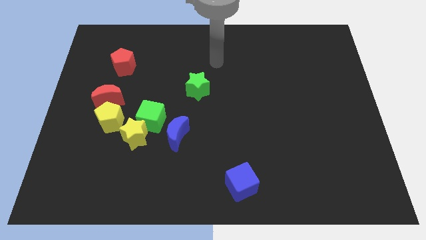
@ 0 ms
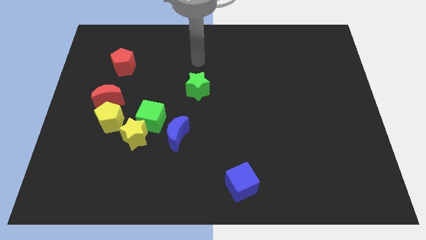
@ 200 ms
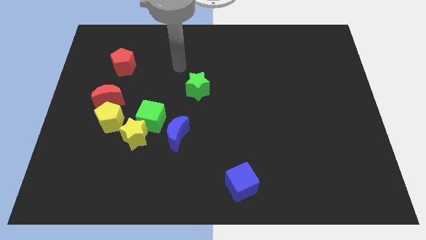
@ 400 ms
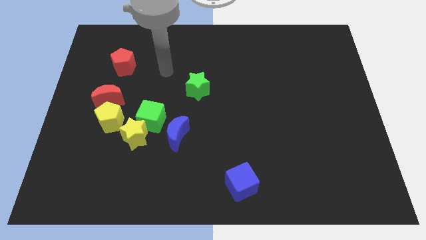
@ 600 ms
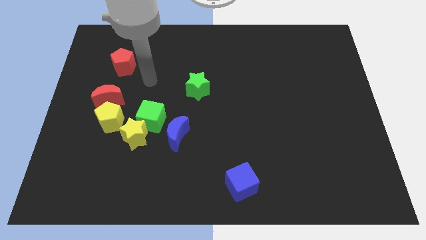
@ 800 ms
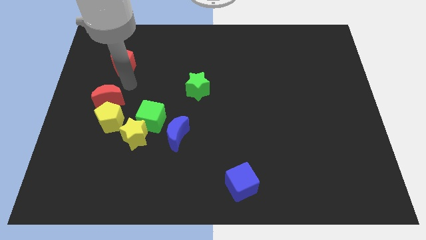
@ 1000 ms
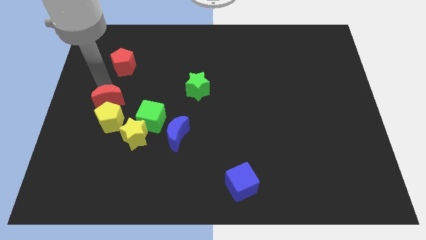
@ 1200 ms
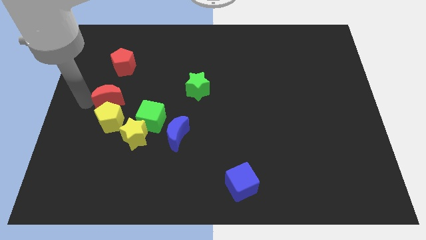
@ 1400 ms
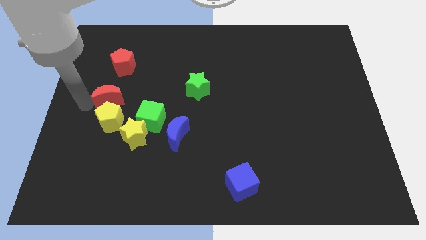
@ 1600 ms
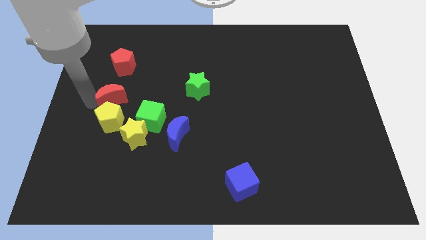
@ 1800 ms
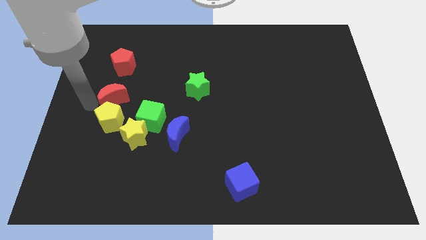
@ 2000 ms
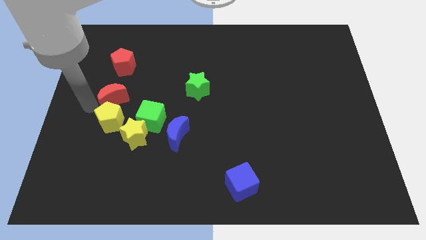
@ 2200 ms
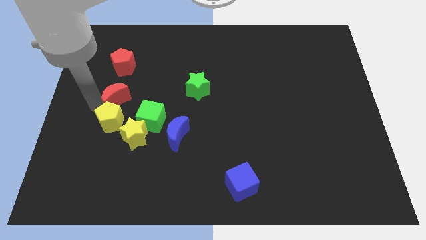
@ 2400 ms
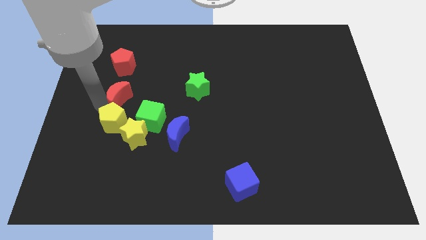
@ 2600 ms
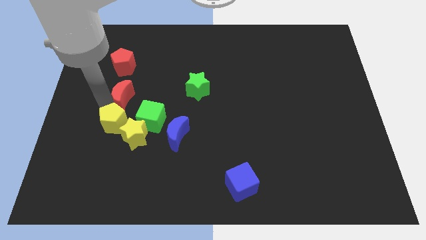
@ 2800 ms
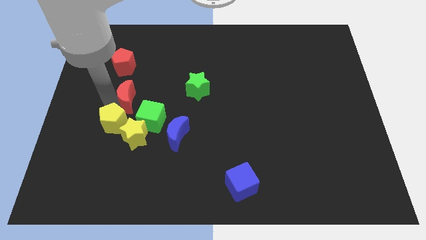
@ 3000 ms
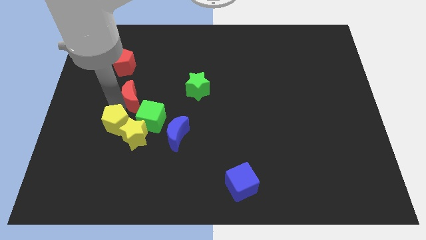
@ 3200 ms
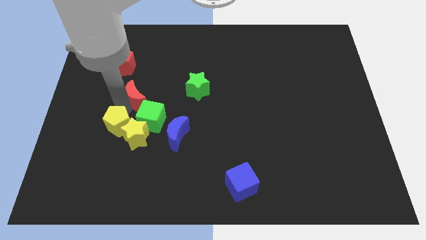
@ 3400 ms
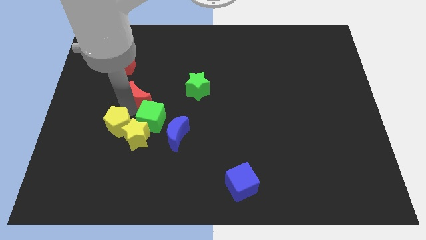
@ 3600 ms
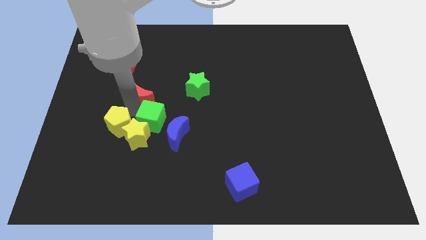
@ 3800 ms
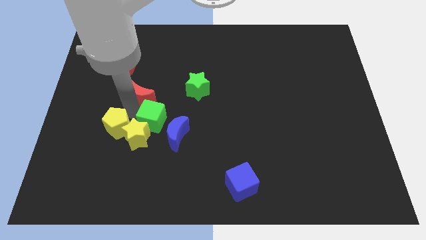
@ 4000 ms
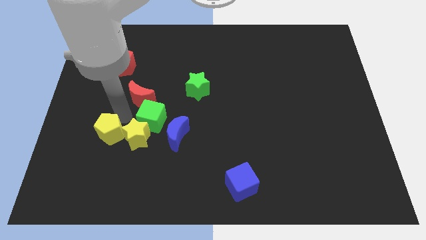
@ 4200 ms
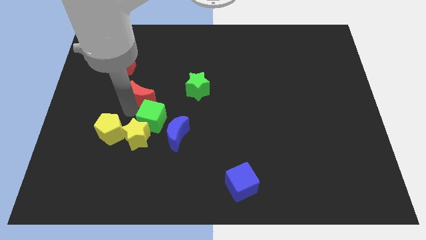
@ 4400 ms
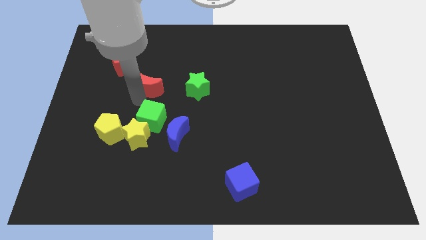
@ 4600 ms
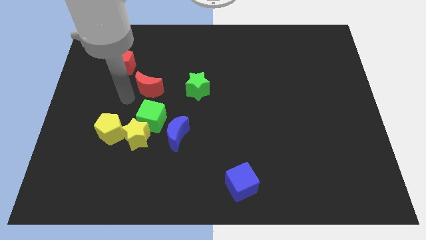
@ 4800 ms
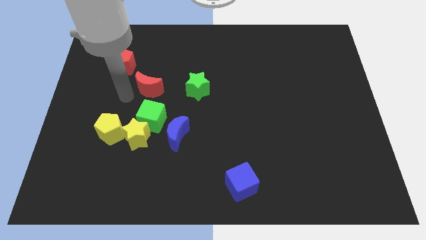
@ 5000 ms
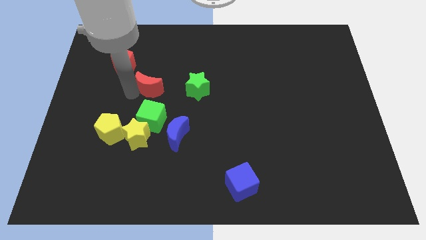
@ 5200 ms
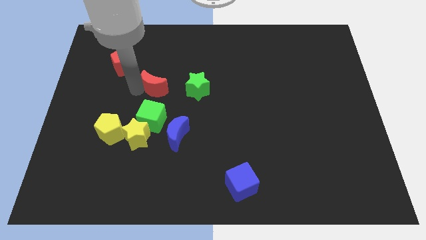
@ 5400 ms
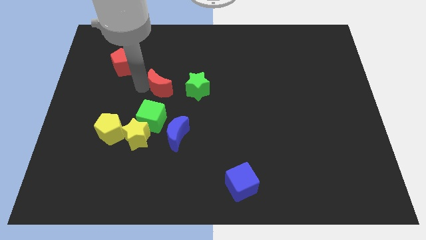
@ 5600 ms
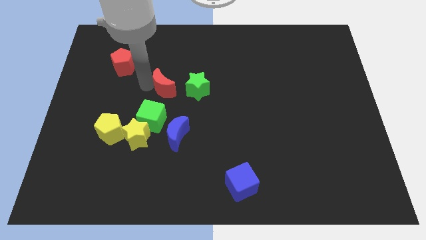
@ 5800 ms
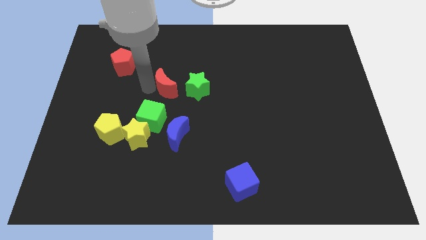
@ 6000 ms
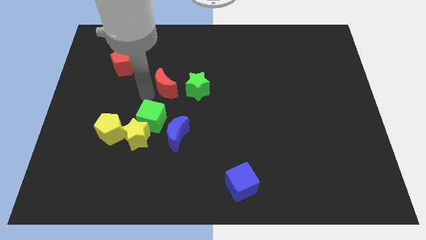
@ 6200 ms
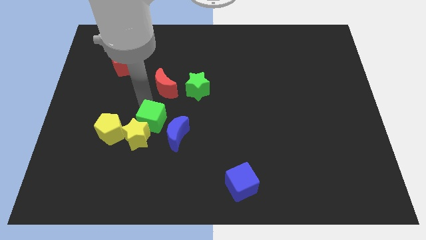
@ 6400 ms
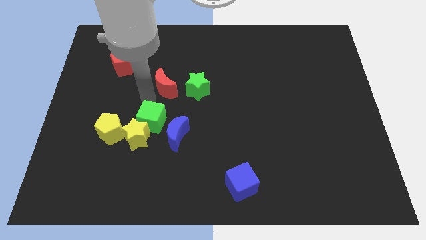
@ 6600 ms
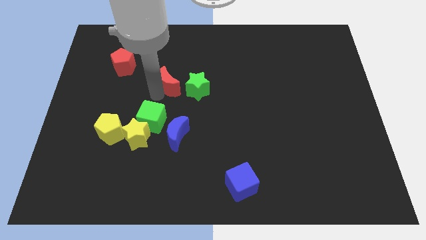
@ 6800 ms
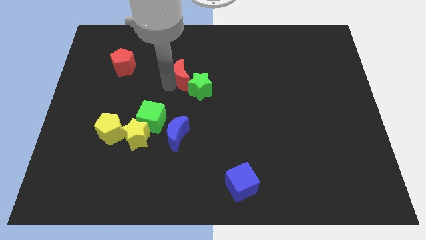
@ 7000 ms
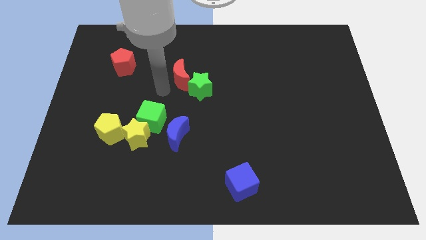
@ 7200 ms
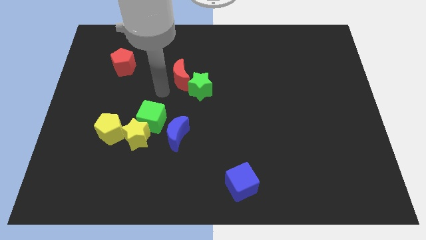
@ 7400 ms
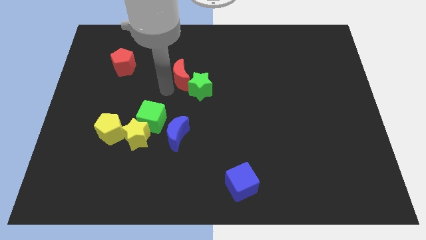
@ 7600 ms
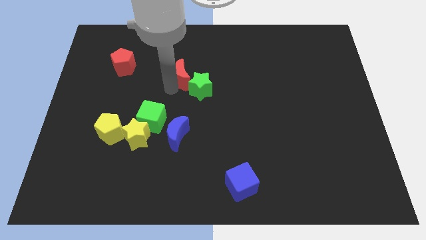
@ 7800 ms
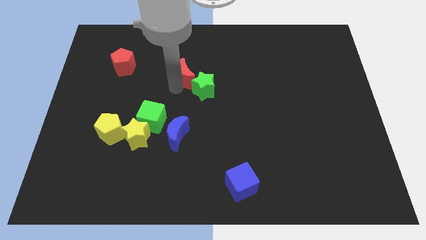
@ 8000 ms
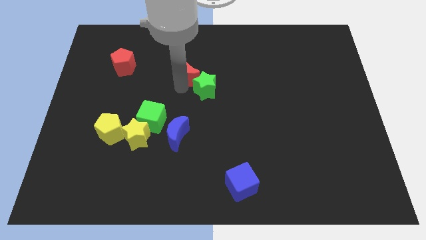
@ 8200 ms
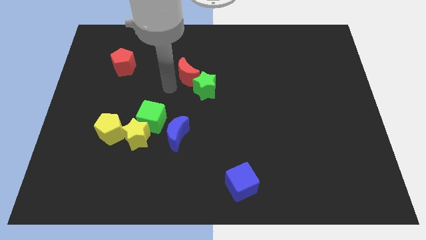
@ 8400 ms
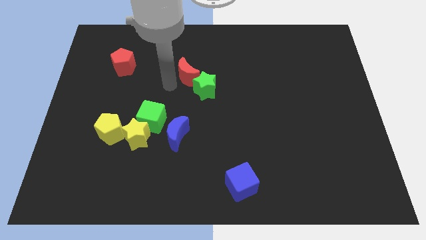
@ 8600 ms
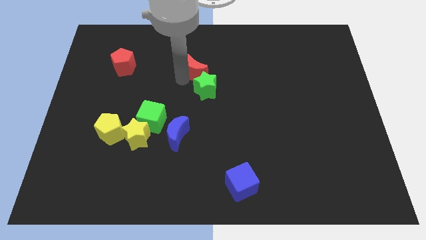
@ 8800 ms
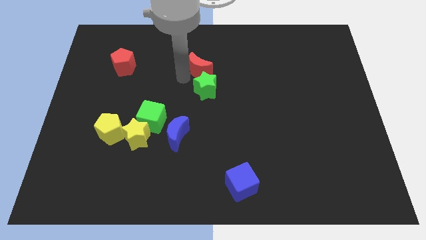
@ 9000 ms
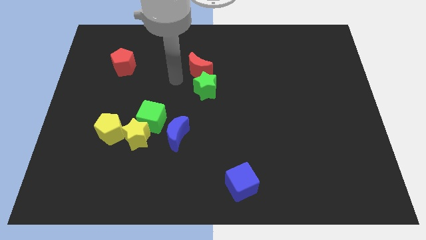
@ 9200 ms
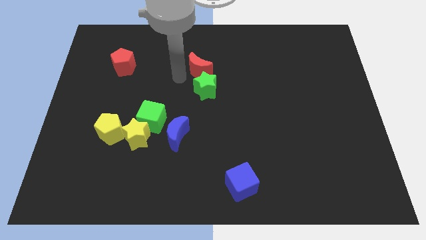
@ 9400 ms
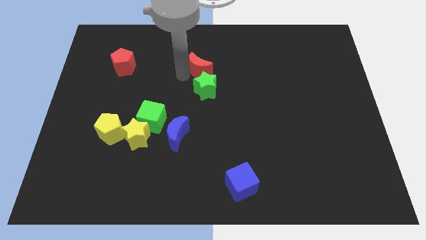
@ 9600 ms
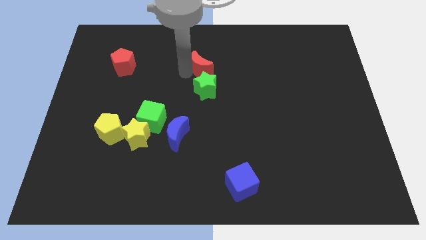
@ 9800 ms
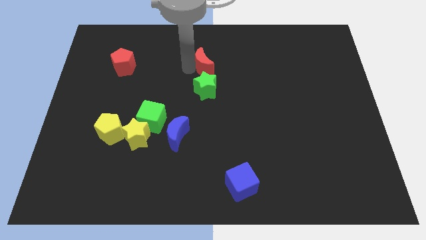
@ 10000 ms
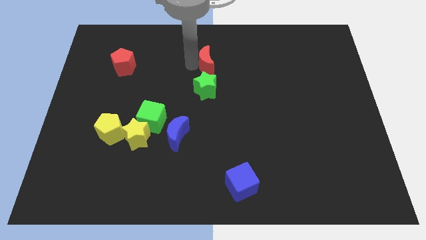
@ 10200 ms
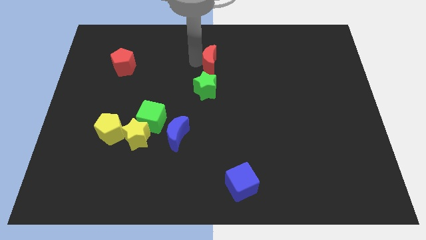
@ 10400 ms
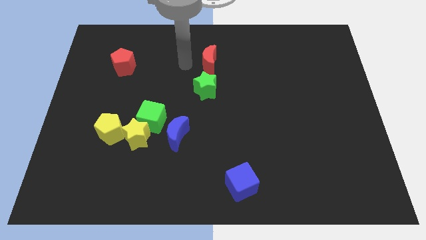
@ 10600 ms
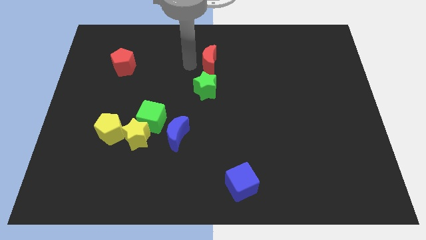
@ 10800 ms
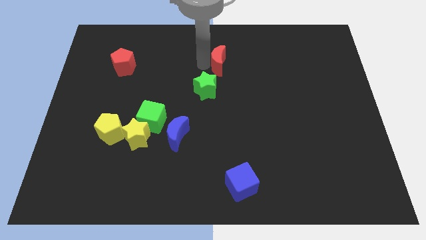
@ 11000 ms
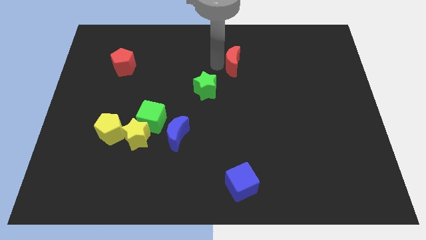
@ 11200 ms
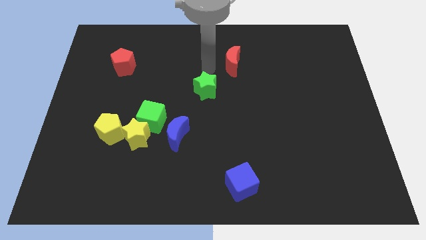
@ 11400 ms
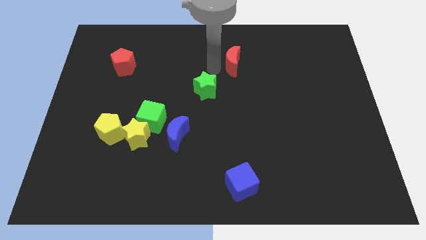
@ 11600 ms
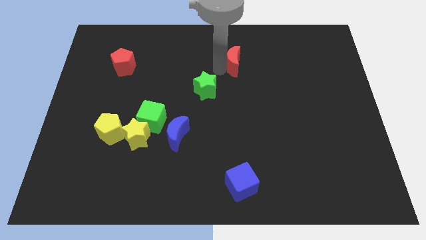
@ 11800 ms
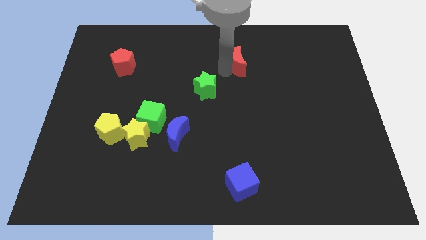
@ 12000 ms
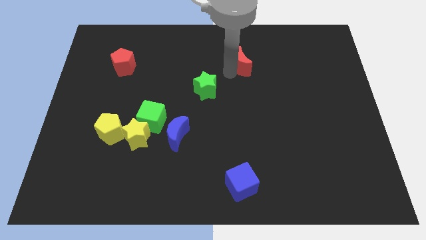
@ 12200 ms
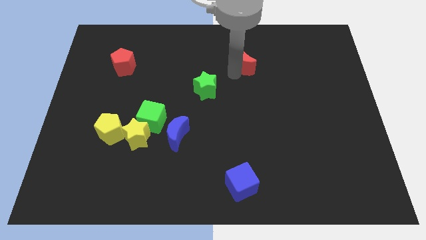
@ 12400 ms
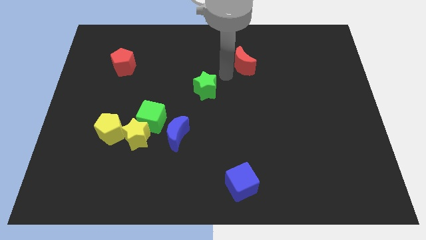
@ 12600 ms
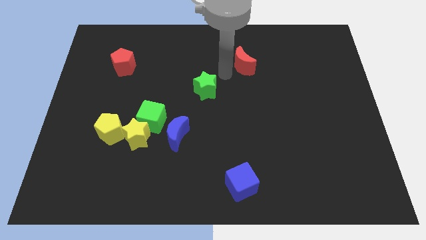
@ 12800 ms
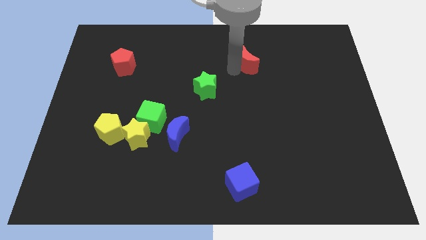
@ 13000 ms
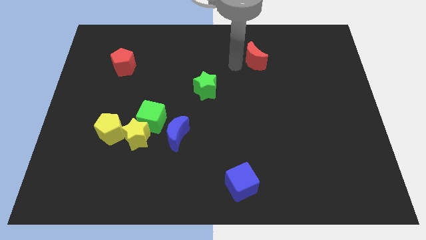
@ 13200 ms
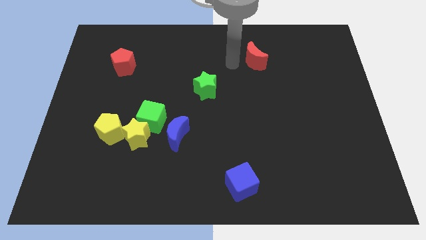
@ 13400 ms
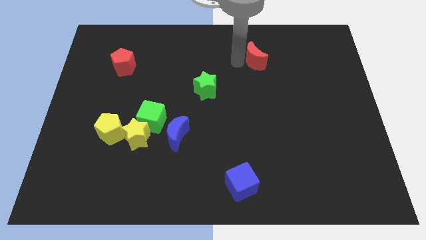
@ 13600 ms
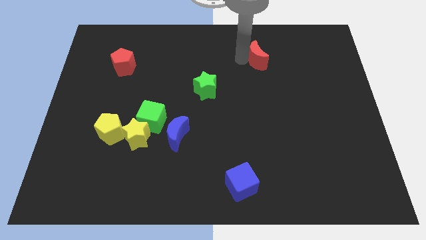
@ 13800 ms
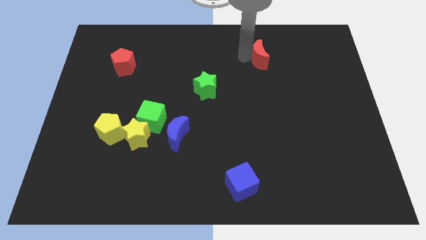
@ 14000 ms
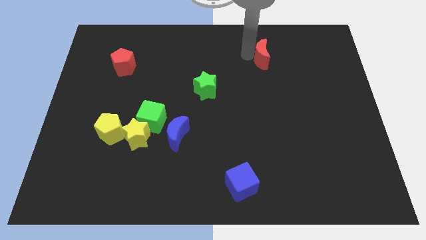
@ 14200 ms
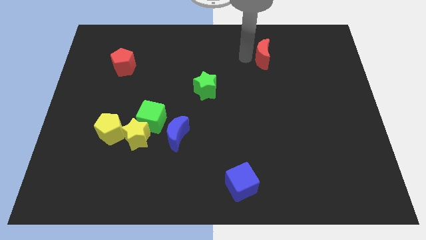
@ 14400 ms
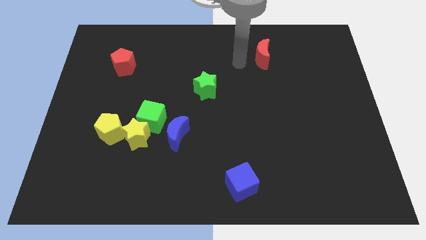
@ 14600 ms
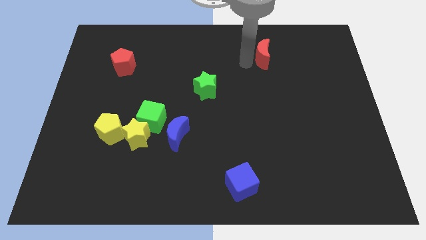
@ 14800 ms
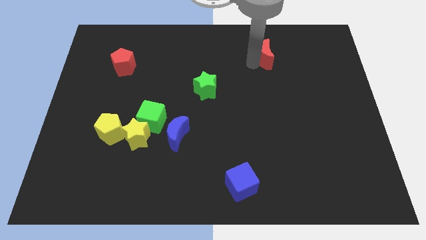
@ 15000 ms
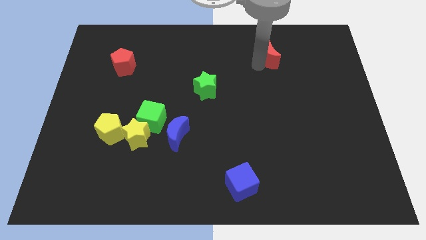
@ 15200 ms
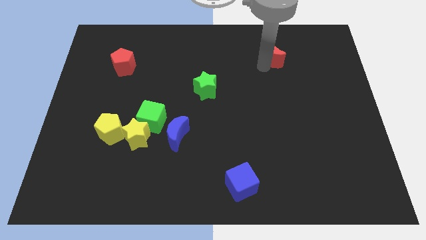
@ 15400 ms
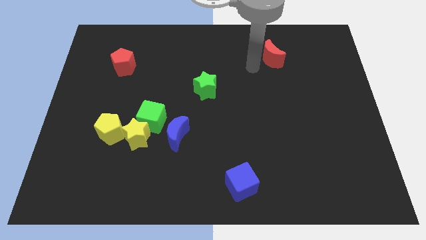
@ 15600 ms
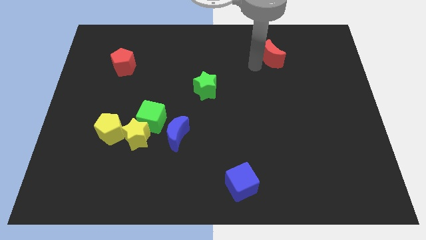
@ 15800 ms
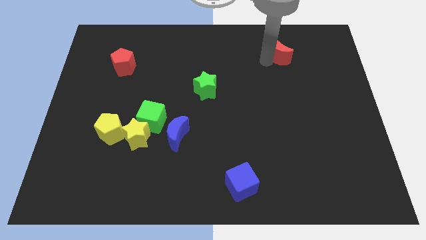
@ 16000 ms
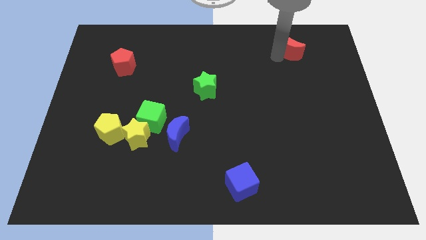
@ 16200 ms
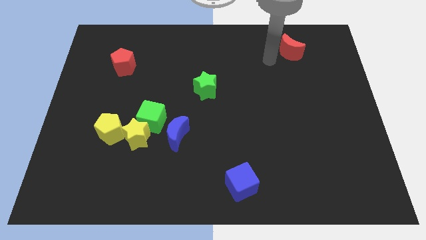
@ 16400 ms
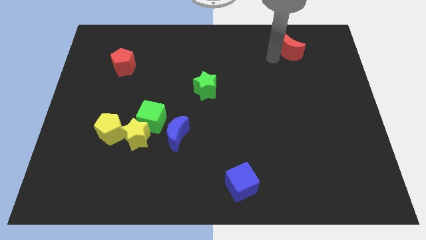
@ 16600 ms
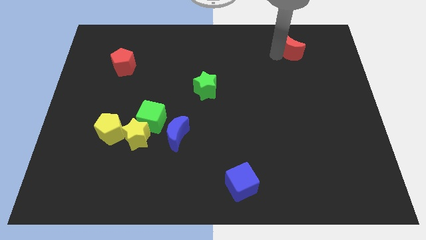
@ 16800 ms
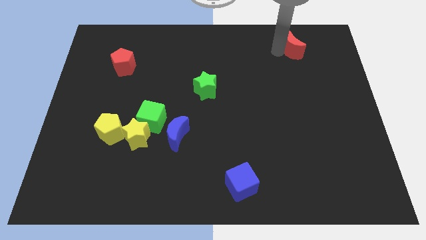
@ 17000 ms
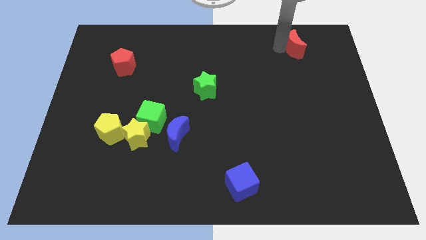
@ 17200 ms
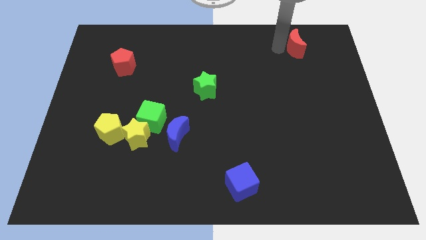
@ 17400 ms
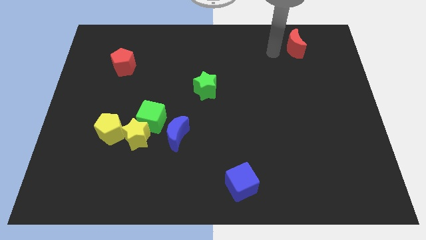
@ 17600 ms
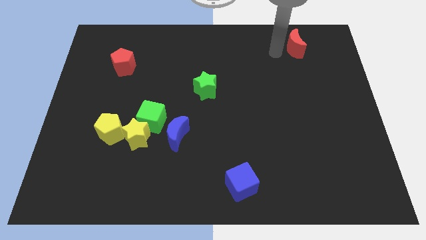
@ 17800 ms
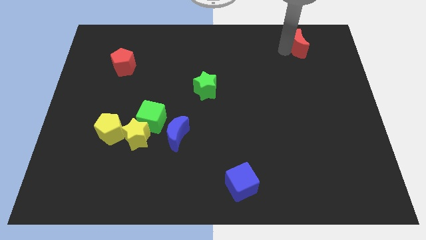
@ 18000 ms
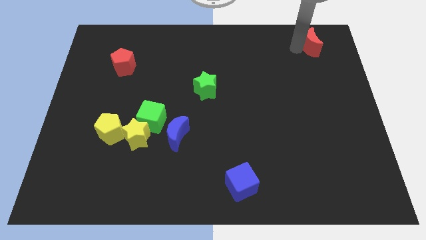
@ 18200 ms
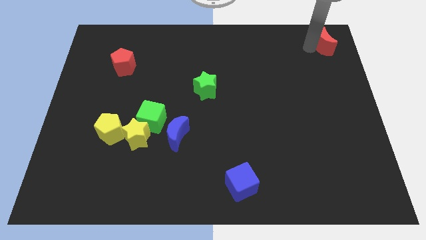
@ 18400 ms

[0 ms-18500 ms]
move the red moon to the upper right corner
